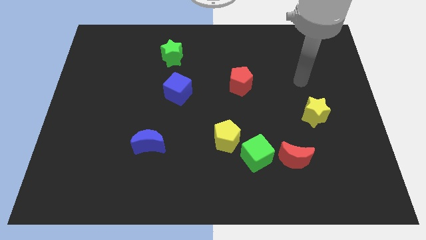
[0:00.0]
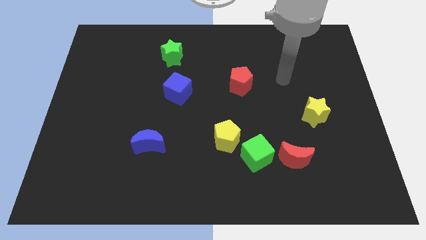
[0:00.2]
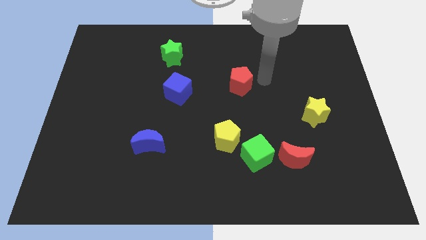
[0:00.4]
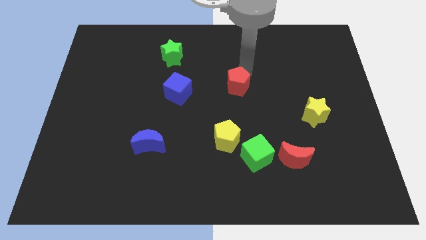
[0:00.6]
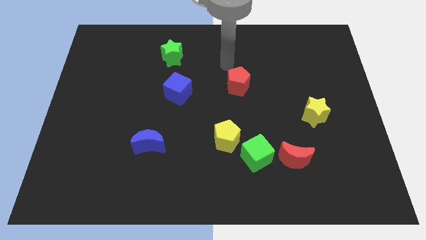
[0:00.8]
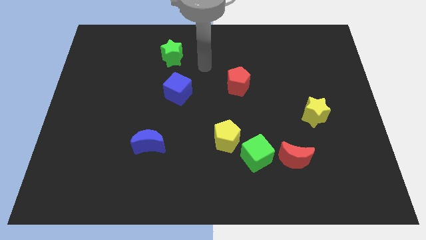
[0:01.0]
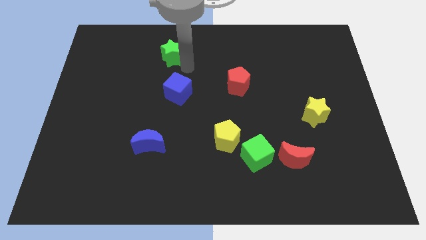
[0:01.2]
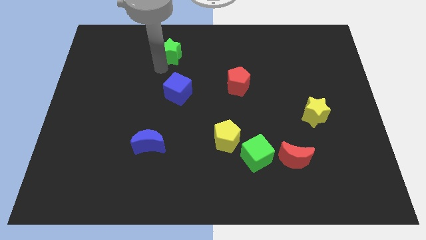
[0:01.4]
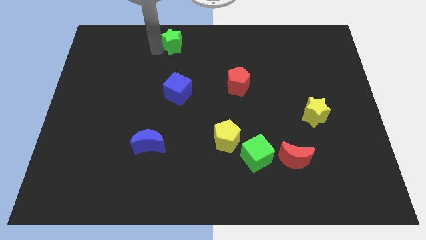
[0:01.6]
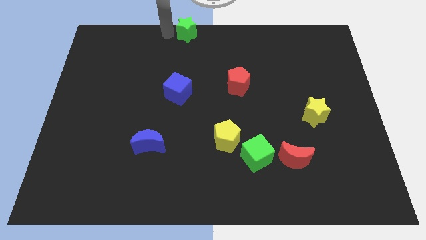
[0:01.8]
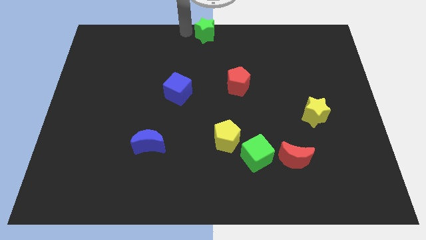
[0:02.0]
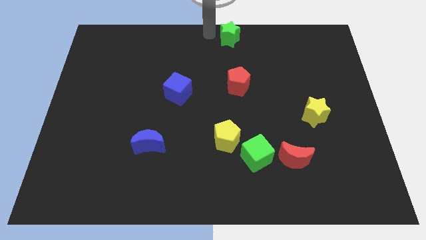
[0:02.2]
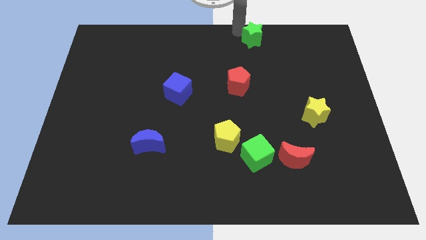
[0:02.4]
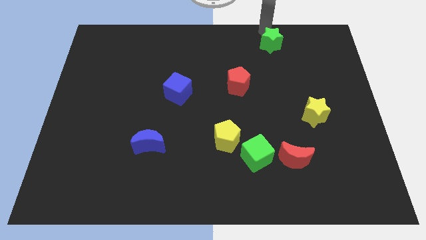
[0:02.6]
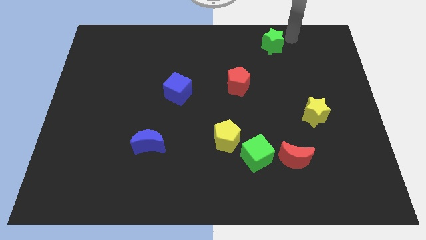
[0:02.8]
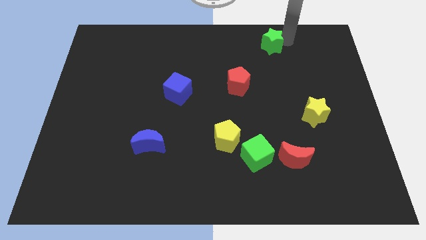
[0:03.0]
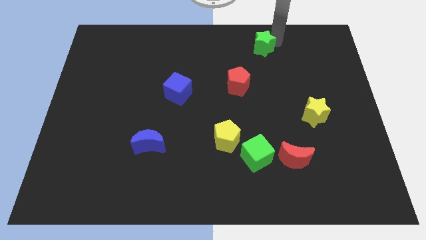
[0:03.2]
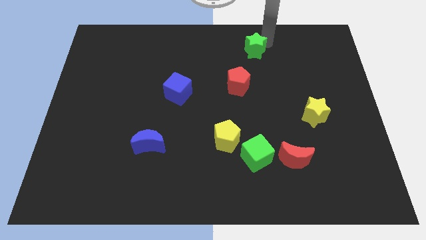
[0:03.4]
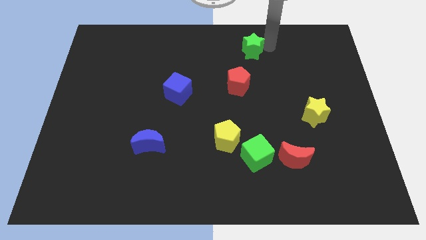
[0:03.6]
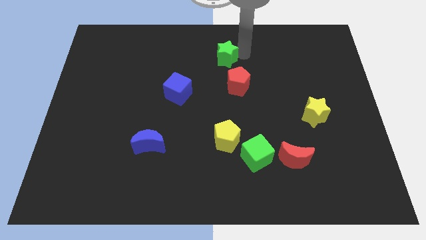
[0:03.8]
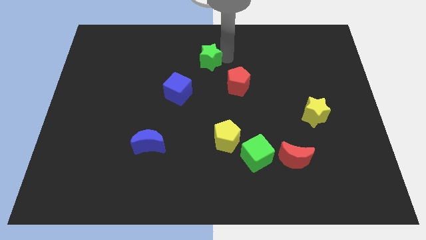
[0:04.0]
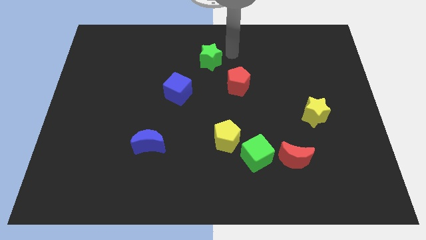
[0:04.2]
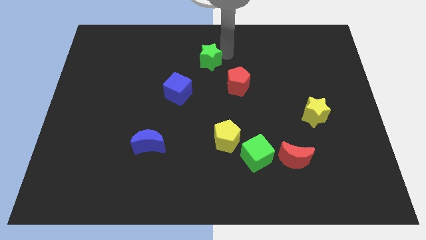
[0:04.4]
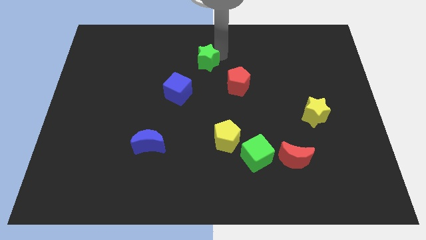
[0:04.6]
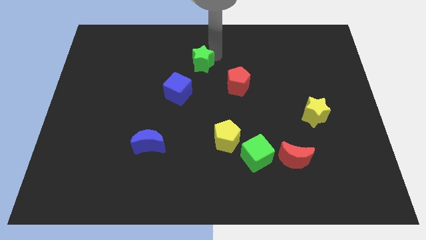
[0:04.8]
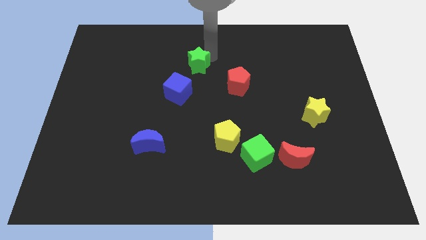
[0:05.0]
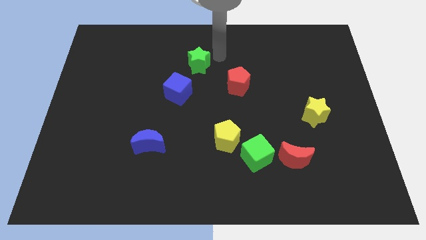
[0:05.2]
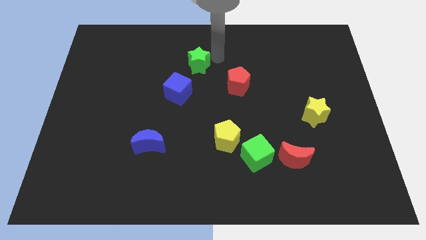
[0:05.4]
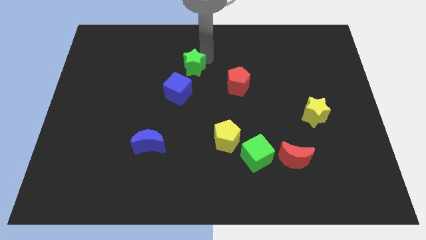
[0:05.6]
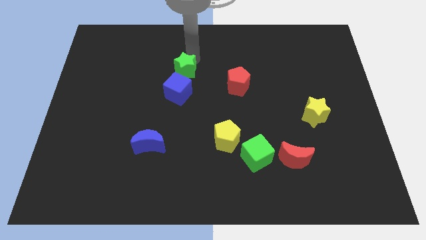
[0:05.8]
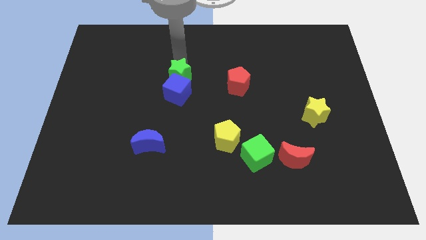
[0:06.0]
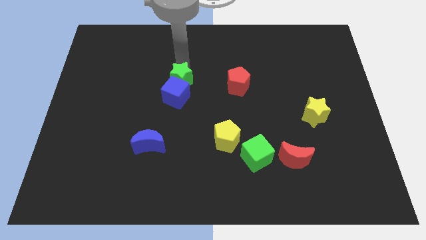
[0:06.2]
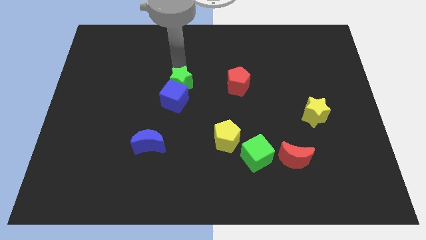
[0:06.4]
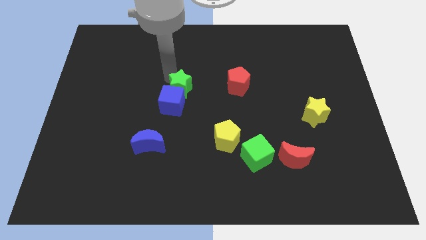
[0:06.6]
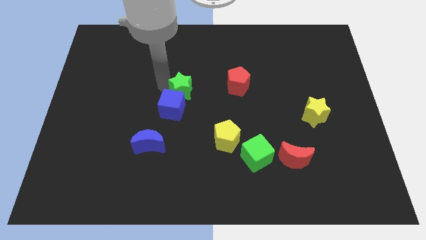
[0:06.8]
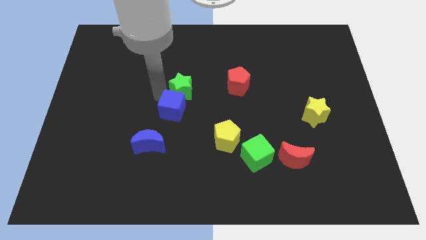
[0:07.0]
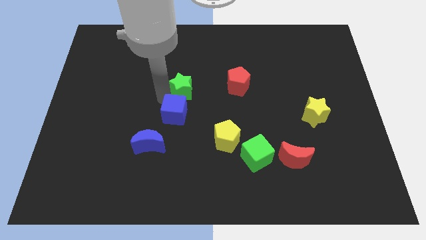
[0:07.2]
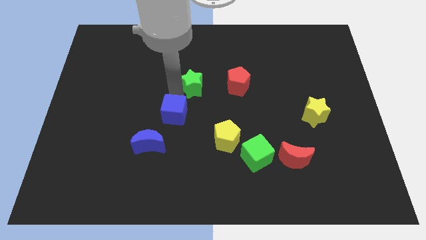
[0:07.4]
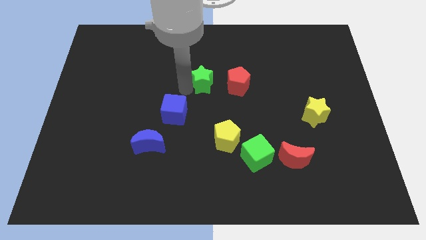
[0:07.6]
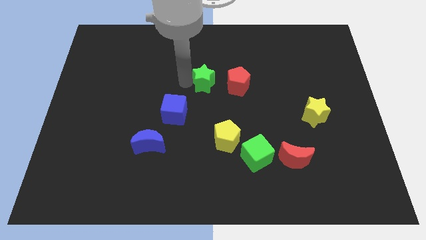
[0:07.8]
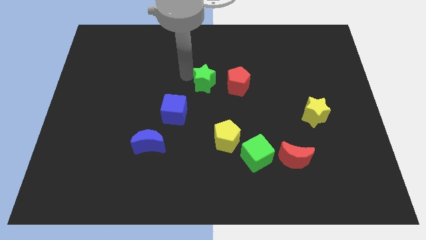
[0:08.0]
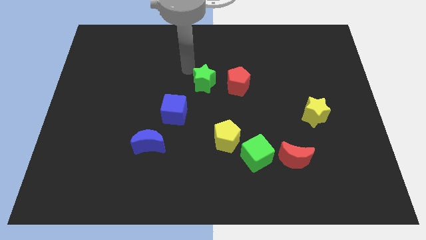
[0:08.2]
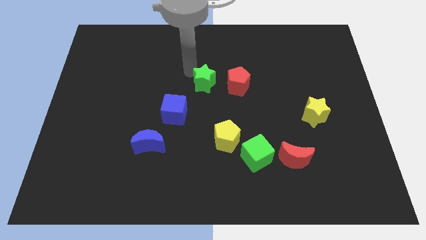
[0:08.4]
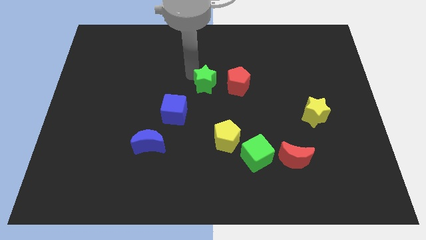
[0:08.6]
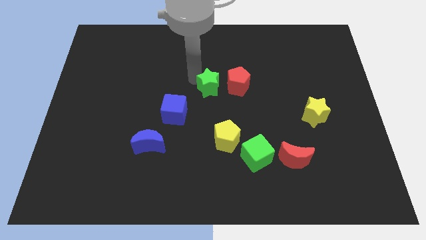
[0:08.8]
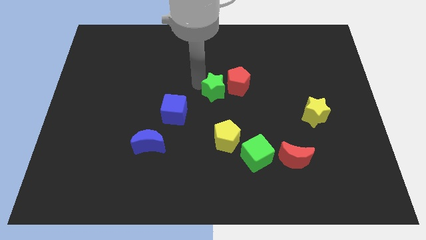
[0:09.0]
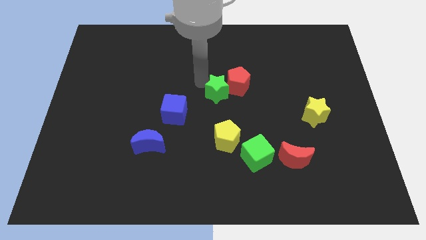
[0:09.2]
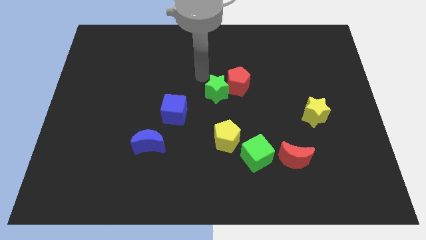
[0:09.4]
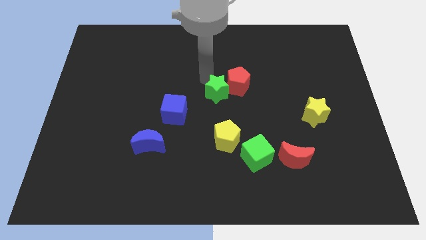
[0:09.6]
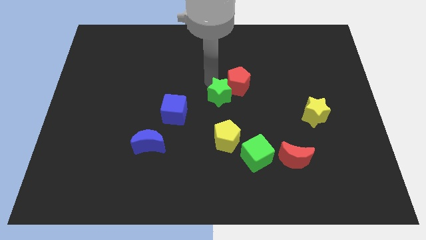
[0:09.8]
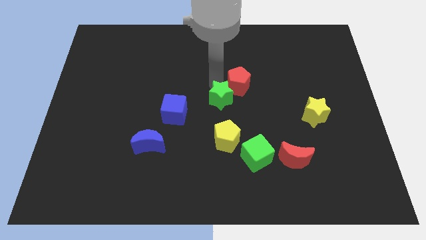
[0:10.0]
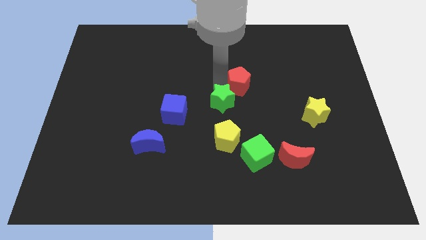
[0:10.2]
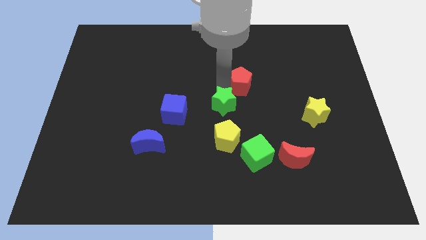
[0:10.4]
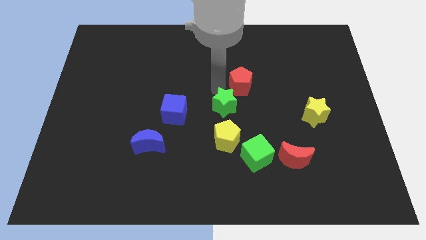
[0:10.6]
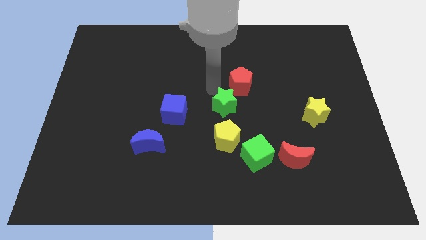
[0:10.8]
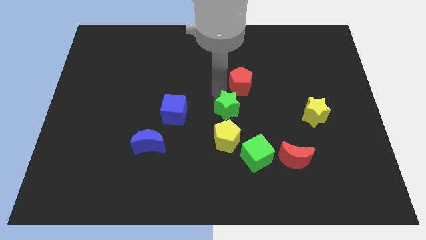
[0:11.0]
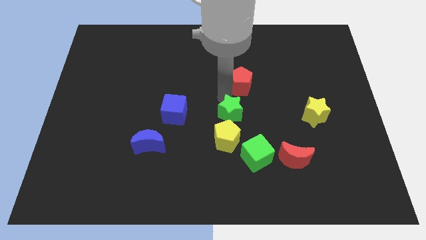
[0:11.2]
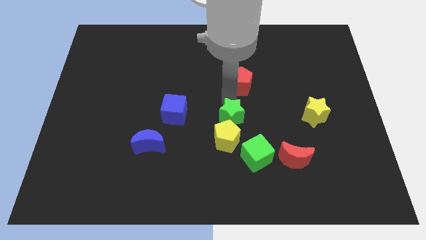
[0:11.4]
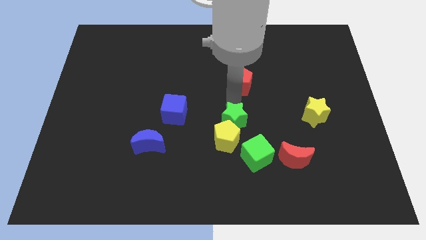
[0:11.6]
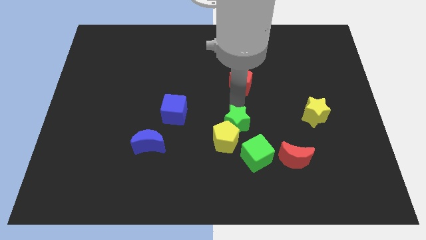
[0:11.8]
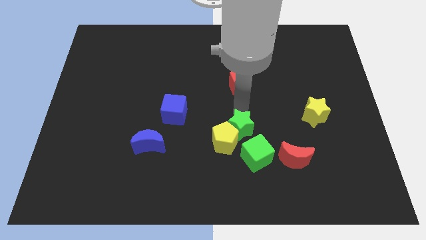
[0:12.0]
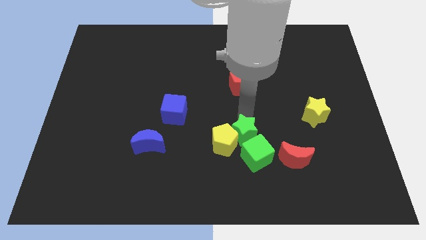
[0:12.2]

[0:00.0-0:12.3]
move the green star towards the green cube

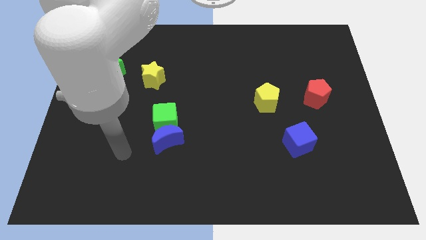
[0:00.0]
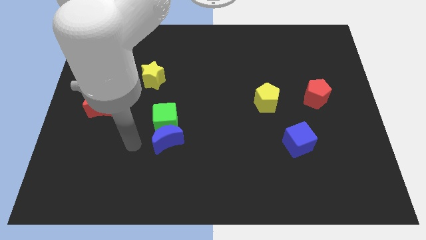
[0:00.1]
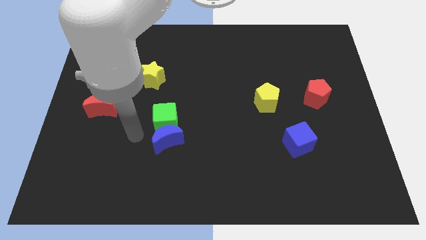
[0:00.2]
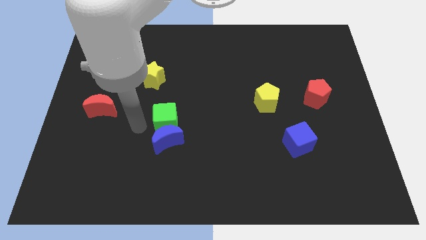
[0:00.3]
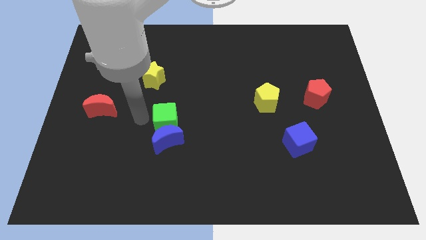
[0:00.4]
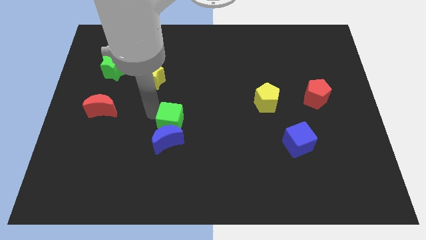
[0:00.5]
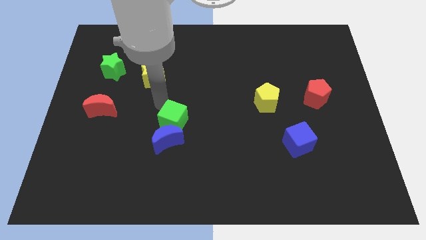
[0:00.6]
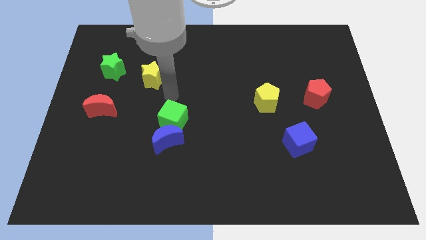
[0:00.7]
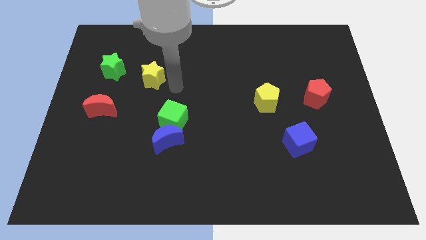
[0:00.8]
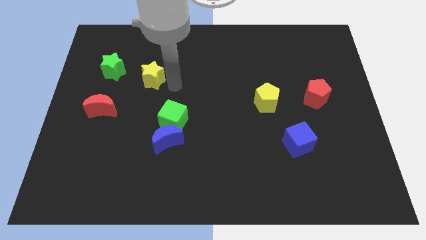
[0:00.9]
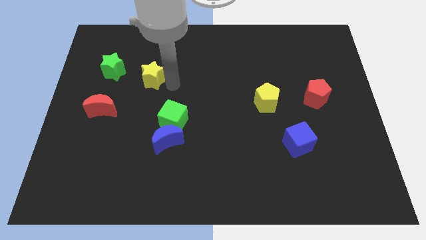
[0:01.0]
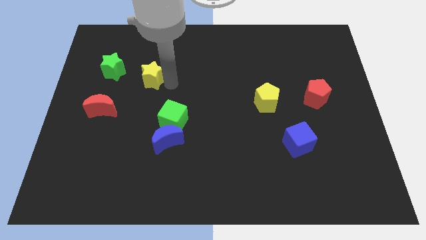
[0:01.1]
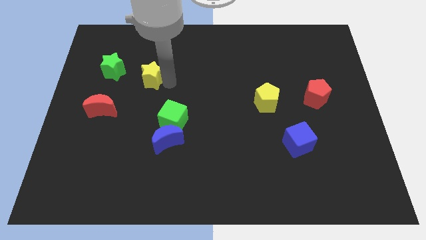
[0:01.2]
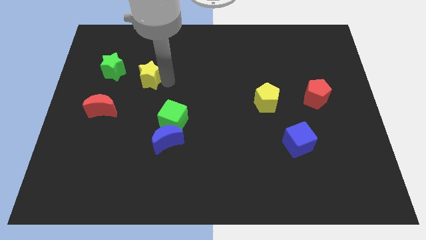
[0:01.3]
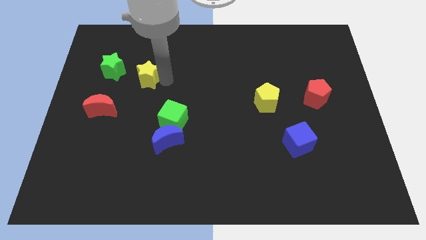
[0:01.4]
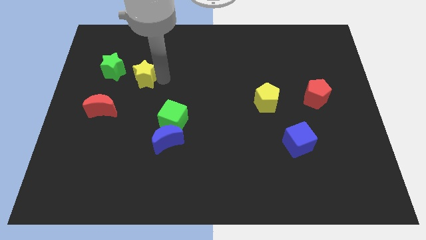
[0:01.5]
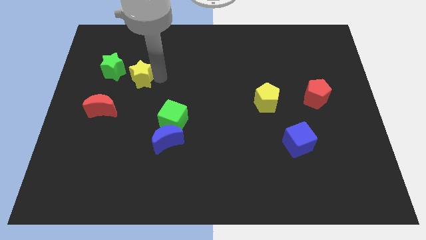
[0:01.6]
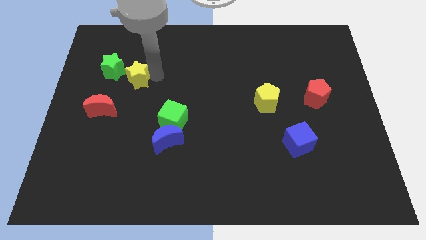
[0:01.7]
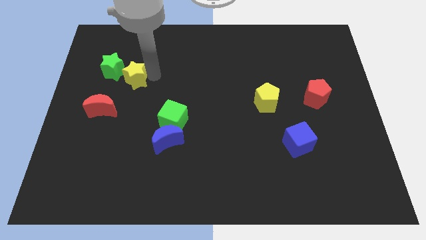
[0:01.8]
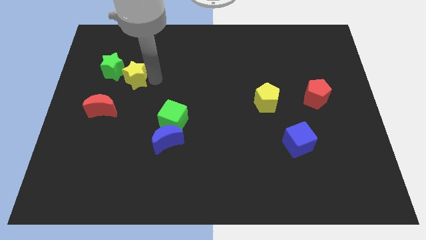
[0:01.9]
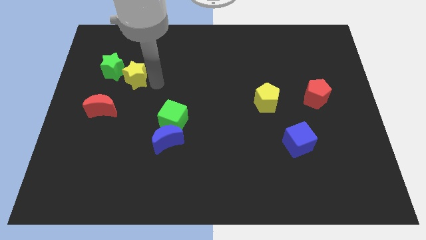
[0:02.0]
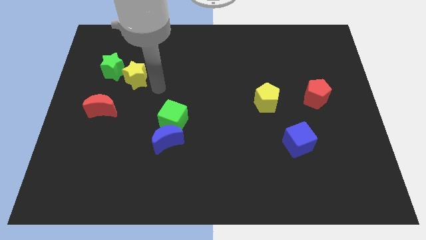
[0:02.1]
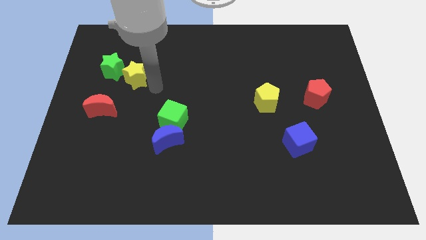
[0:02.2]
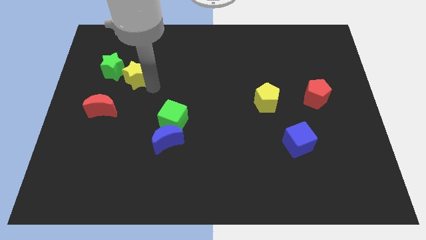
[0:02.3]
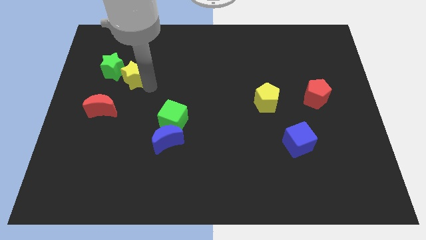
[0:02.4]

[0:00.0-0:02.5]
move the yellow star close to the green star
